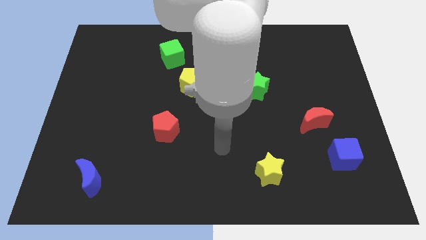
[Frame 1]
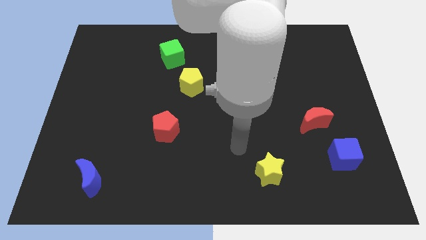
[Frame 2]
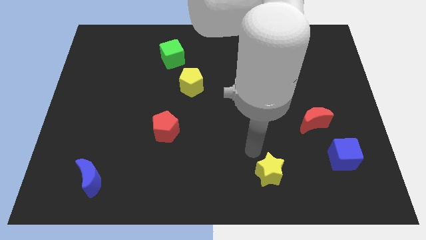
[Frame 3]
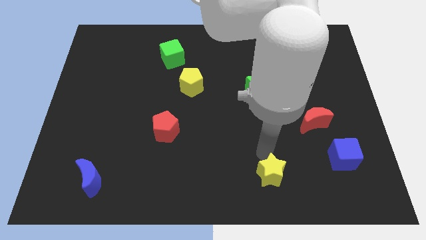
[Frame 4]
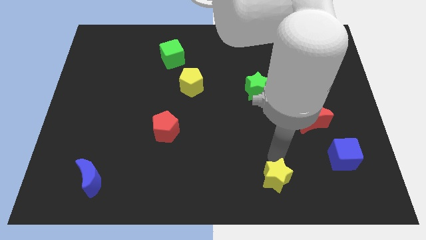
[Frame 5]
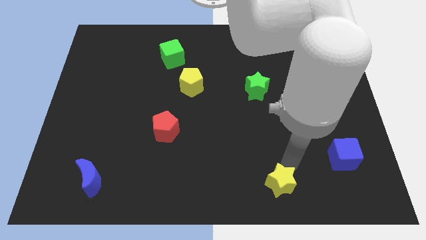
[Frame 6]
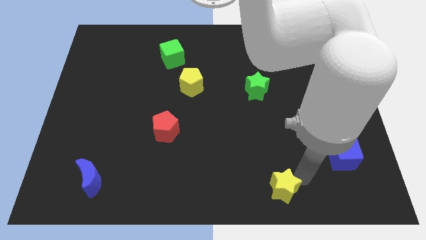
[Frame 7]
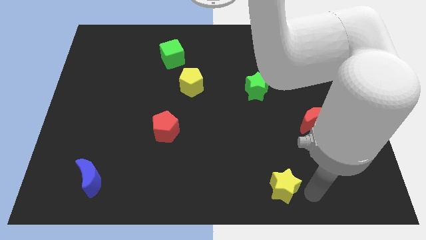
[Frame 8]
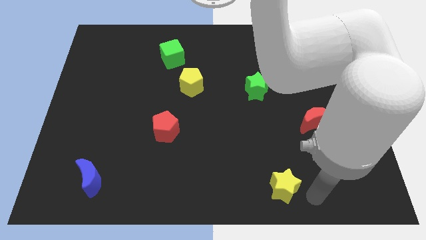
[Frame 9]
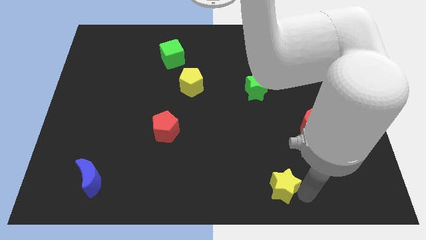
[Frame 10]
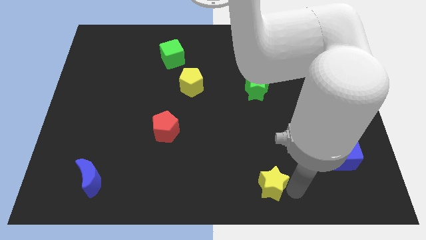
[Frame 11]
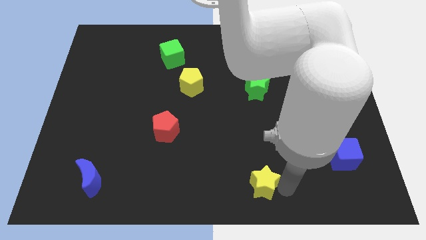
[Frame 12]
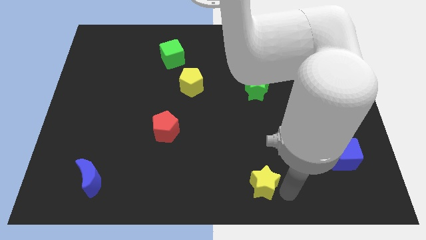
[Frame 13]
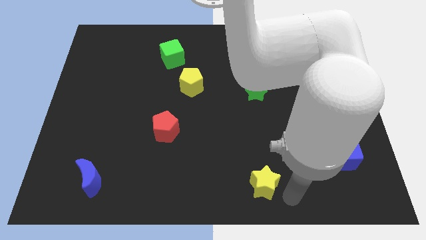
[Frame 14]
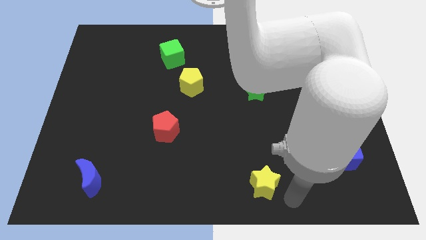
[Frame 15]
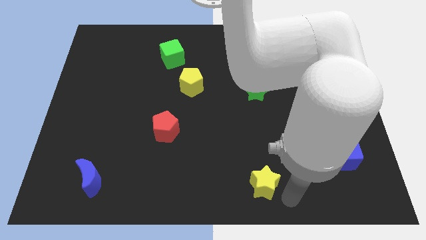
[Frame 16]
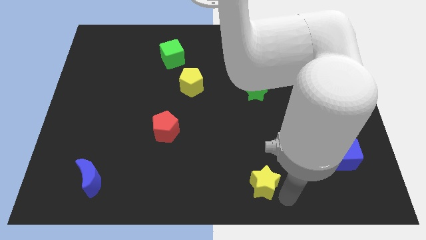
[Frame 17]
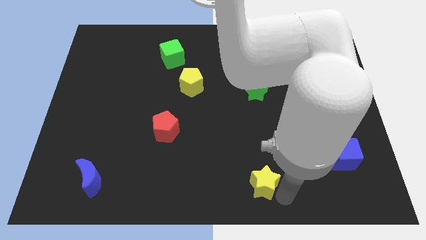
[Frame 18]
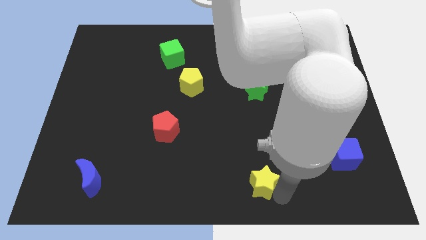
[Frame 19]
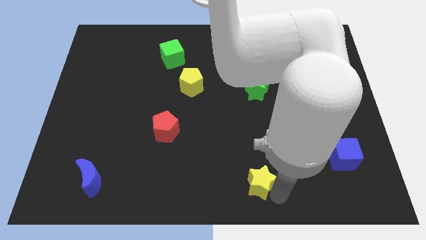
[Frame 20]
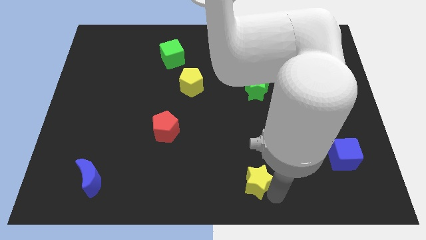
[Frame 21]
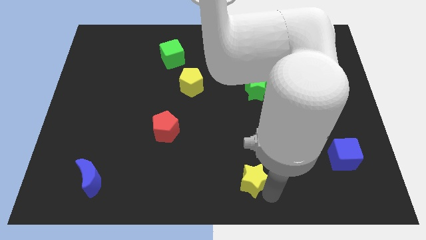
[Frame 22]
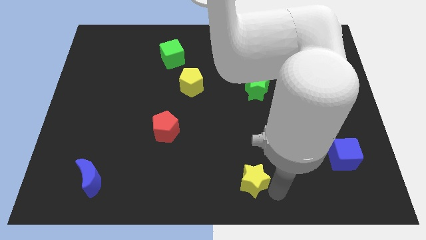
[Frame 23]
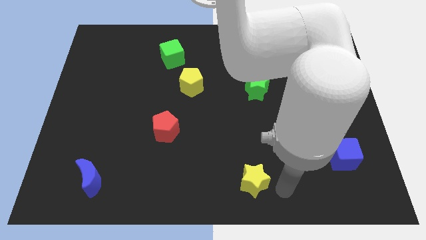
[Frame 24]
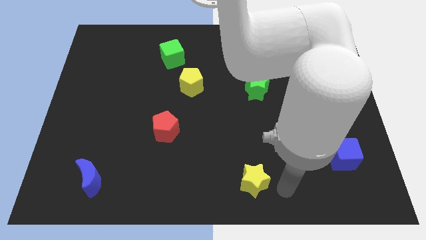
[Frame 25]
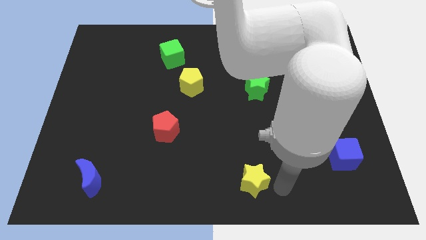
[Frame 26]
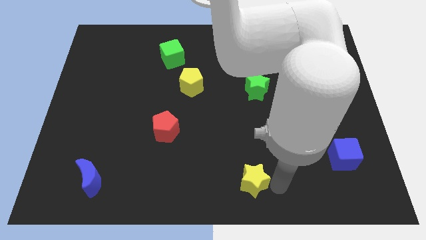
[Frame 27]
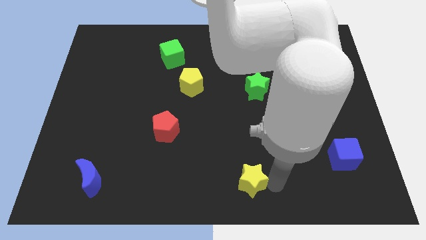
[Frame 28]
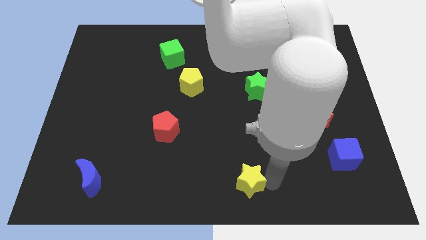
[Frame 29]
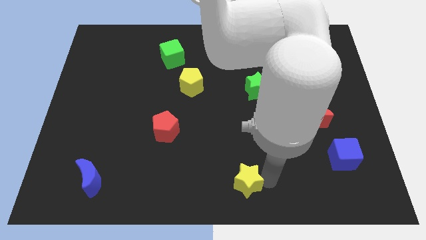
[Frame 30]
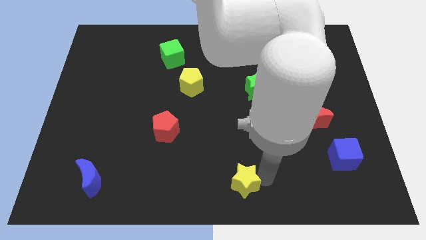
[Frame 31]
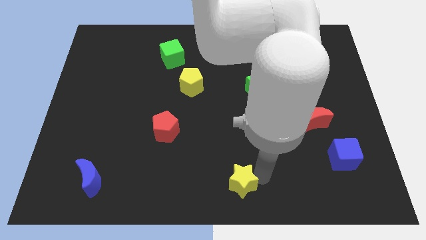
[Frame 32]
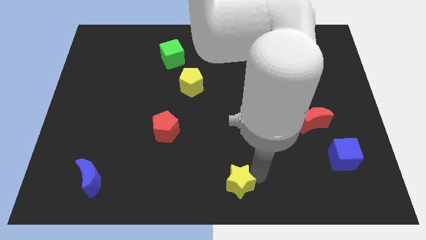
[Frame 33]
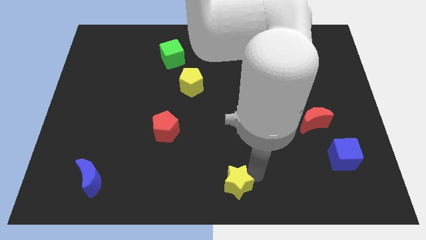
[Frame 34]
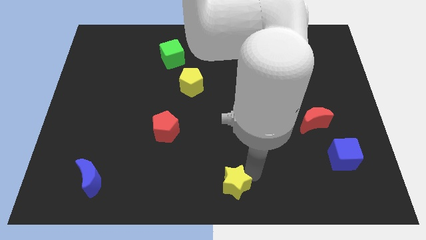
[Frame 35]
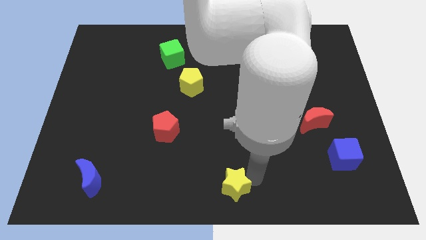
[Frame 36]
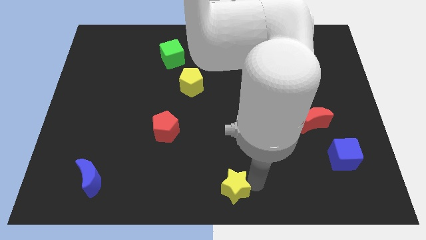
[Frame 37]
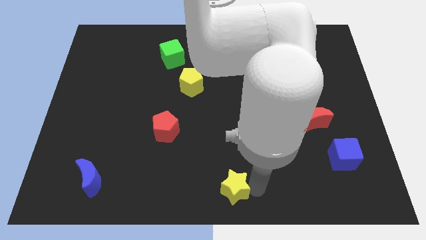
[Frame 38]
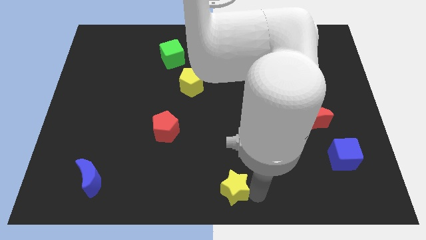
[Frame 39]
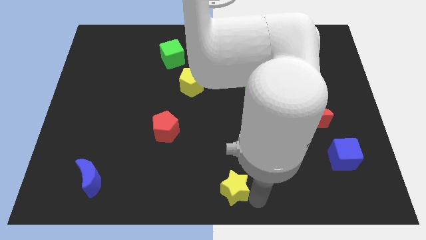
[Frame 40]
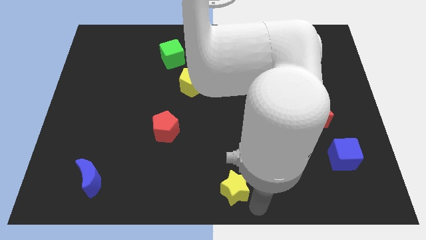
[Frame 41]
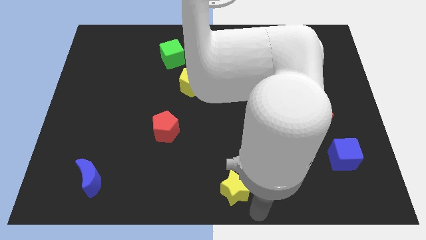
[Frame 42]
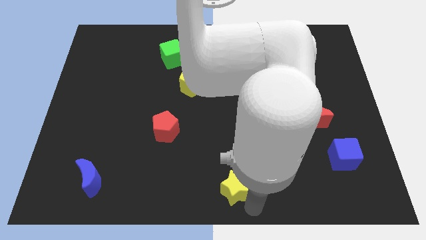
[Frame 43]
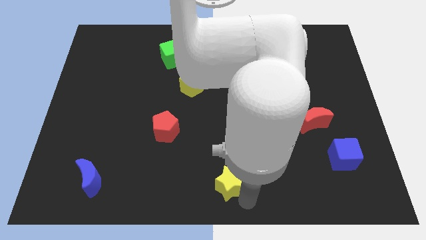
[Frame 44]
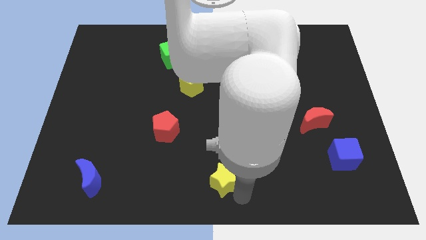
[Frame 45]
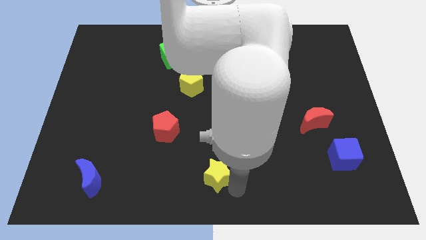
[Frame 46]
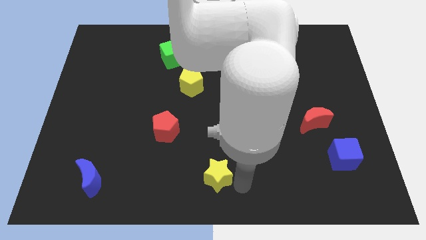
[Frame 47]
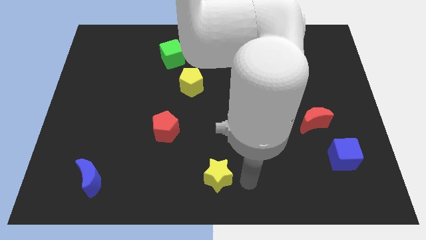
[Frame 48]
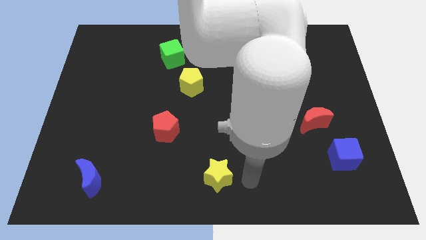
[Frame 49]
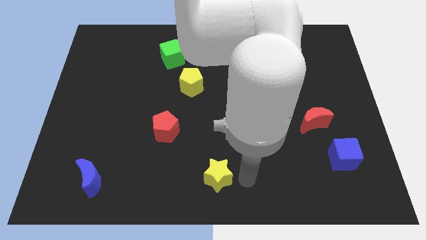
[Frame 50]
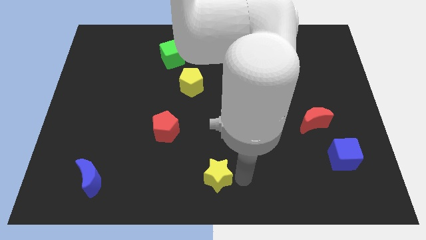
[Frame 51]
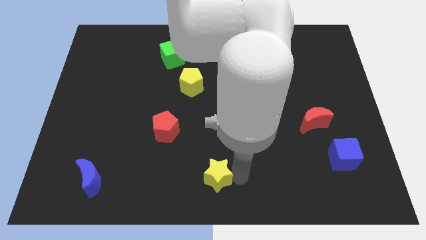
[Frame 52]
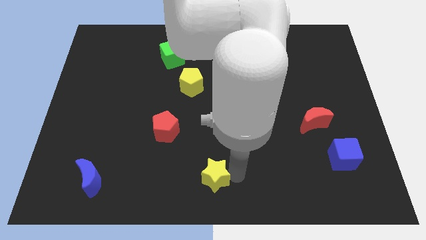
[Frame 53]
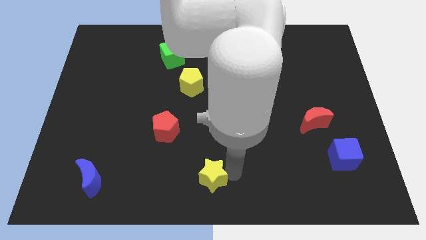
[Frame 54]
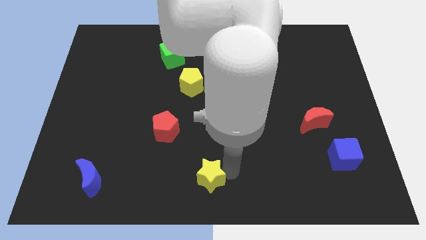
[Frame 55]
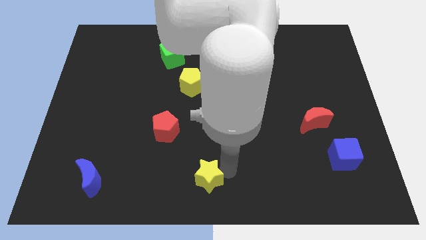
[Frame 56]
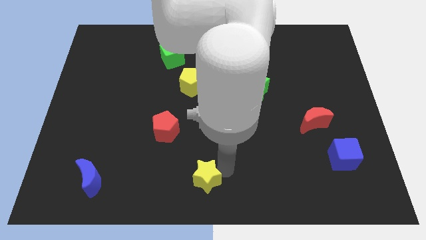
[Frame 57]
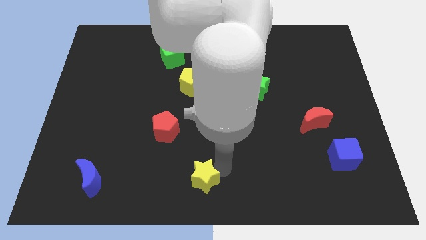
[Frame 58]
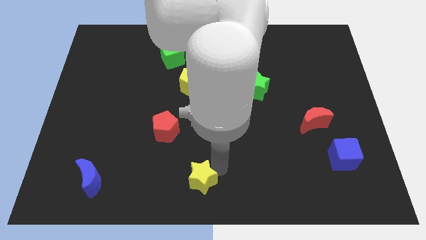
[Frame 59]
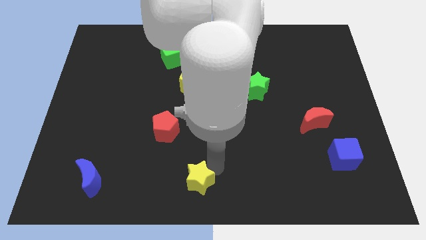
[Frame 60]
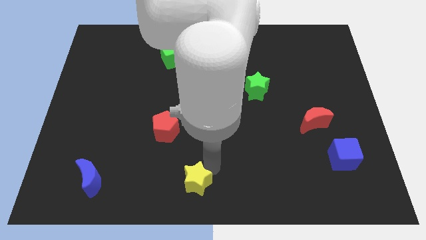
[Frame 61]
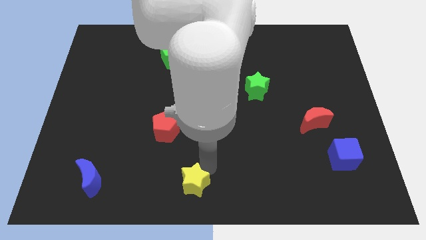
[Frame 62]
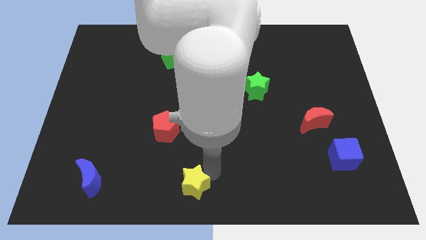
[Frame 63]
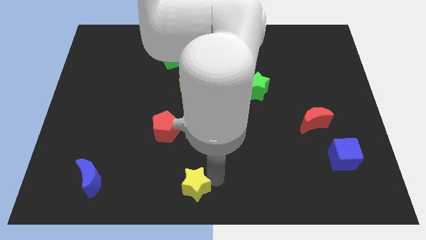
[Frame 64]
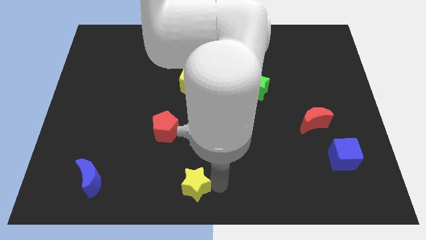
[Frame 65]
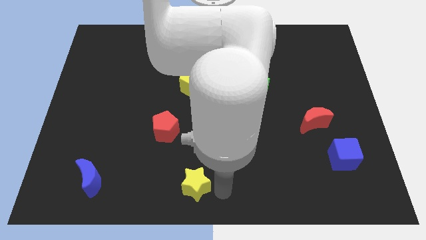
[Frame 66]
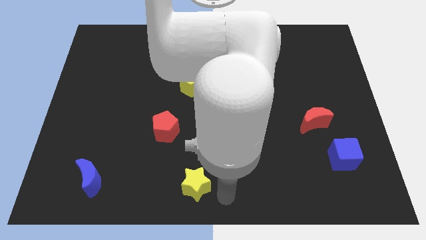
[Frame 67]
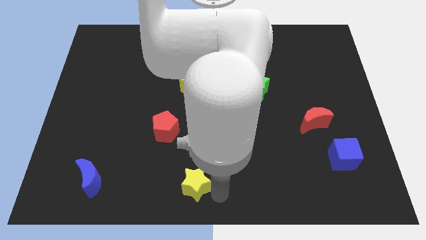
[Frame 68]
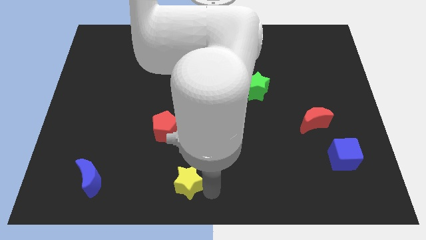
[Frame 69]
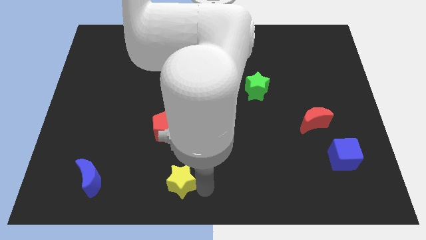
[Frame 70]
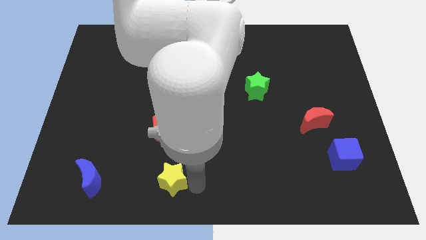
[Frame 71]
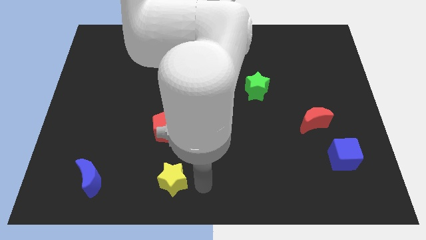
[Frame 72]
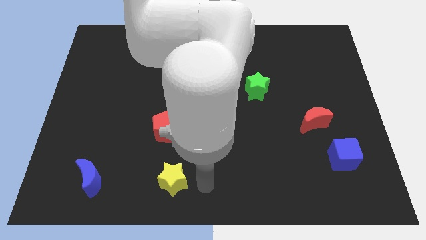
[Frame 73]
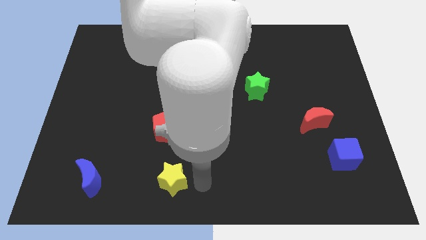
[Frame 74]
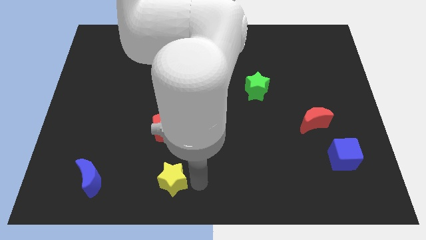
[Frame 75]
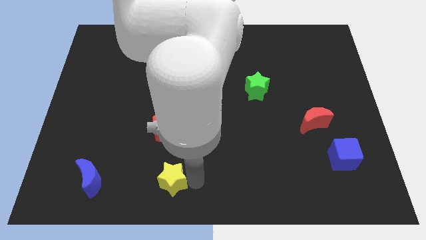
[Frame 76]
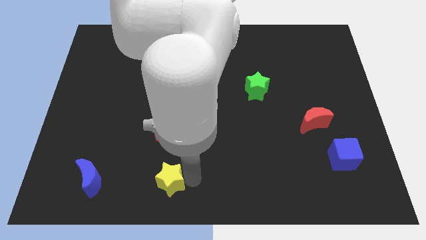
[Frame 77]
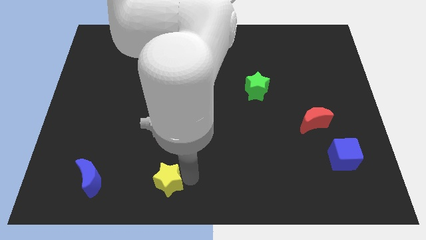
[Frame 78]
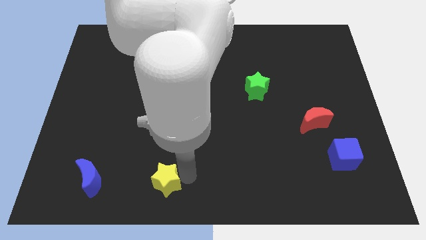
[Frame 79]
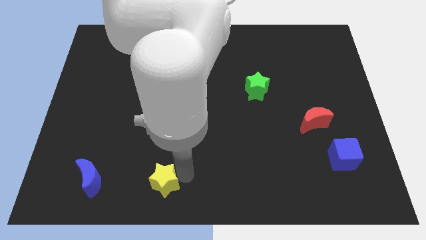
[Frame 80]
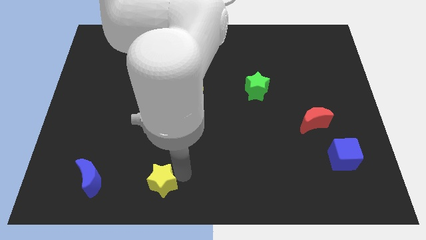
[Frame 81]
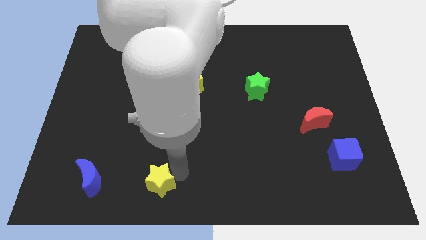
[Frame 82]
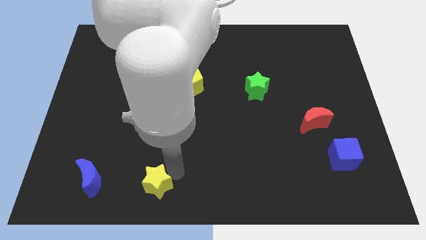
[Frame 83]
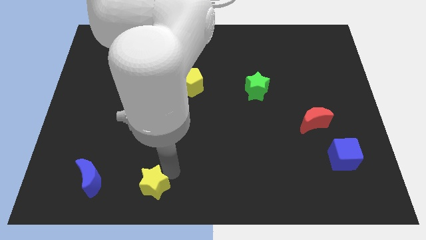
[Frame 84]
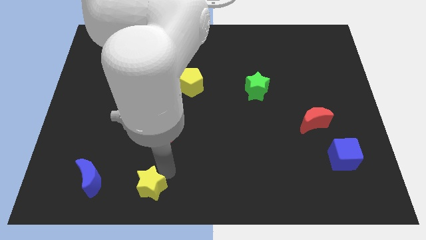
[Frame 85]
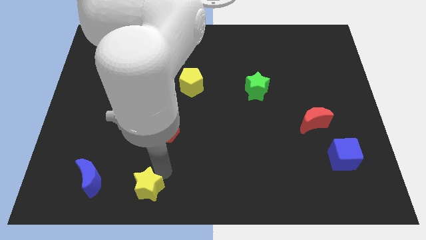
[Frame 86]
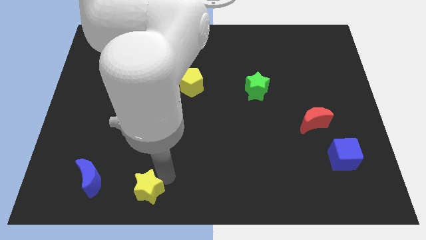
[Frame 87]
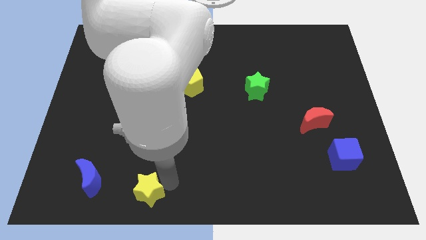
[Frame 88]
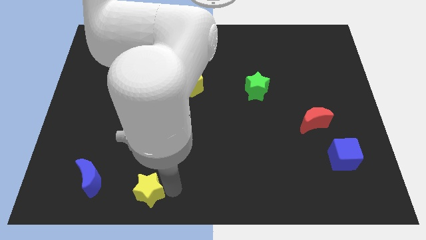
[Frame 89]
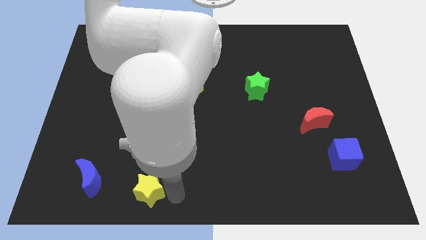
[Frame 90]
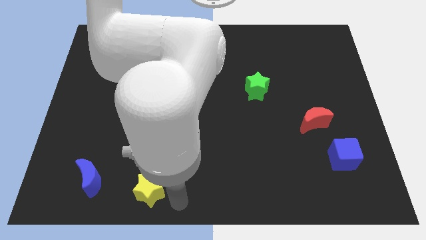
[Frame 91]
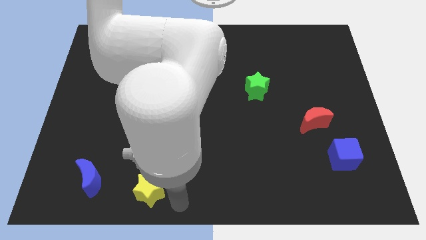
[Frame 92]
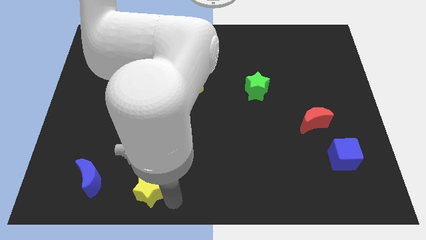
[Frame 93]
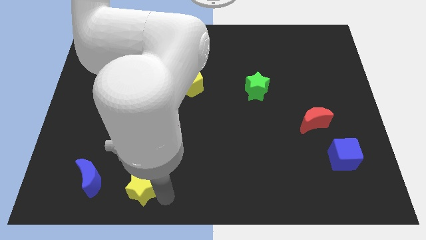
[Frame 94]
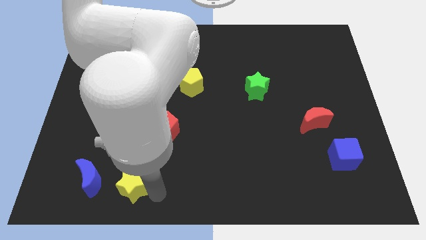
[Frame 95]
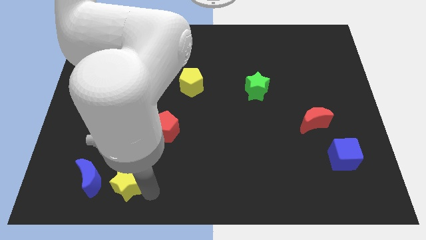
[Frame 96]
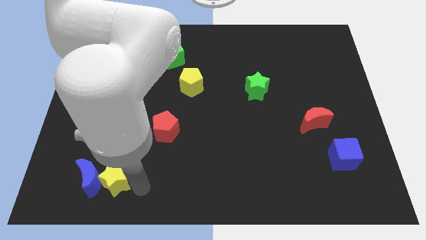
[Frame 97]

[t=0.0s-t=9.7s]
slide the yellow star close to the blue moon
